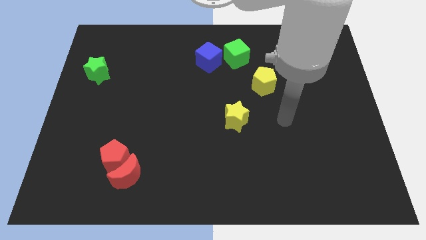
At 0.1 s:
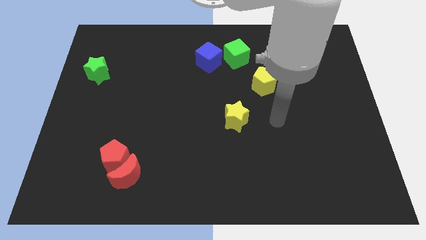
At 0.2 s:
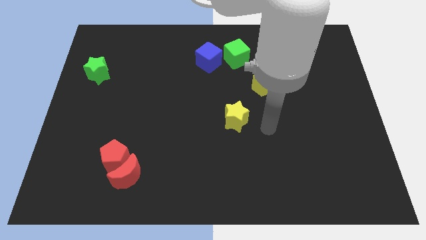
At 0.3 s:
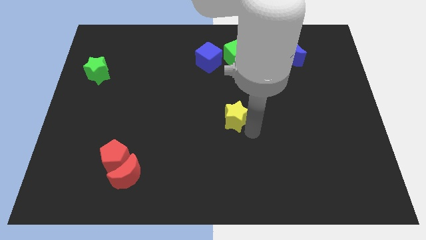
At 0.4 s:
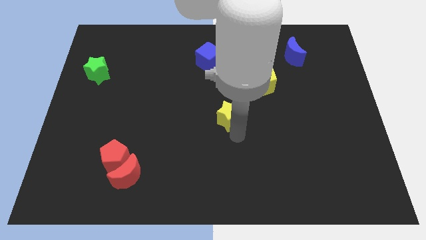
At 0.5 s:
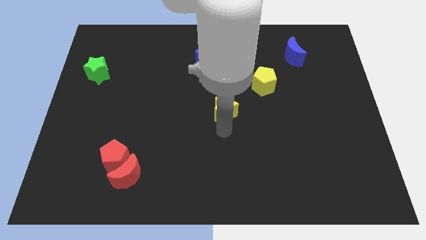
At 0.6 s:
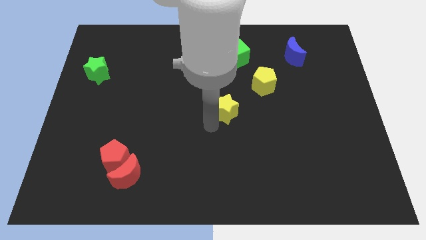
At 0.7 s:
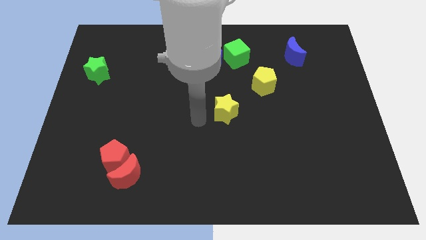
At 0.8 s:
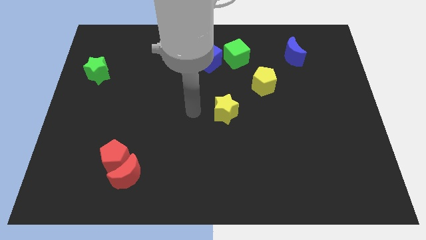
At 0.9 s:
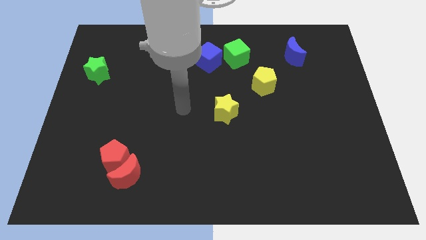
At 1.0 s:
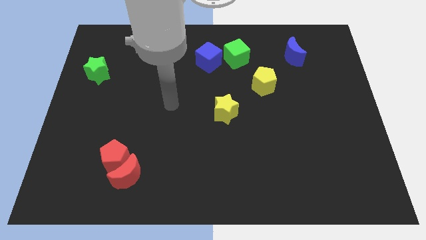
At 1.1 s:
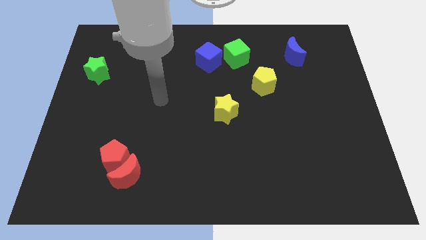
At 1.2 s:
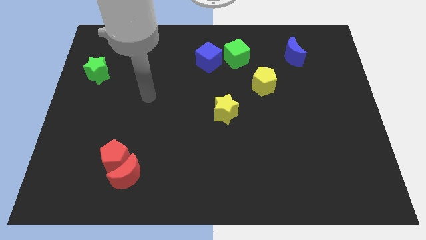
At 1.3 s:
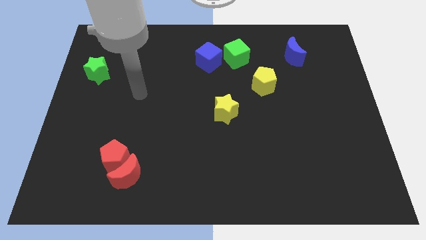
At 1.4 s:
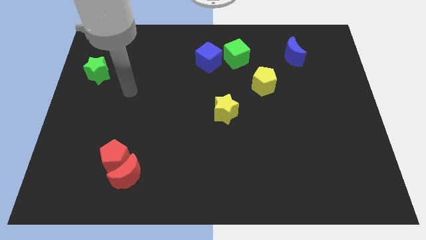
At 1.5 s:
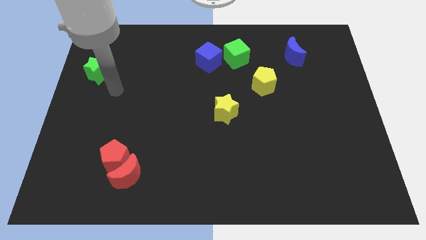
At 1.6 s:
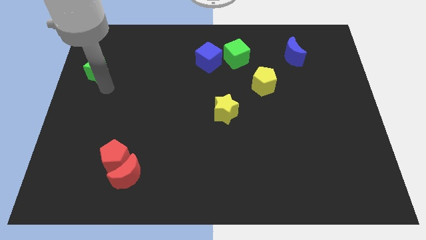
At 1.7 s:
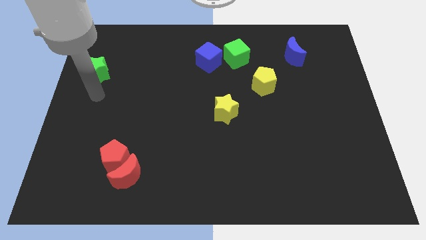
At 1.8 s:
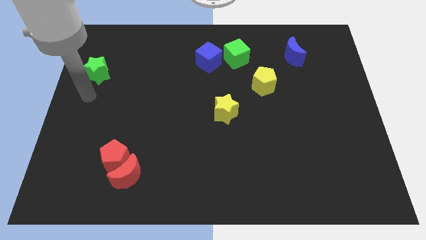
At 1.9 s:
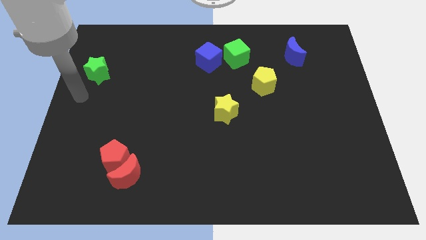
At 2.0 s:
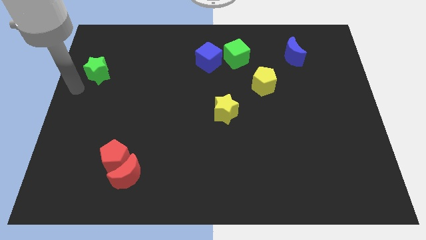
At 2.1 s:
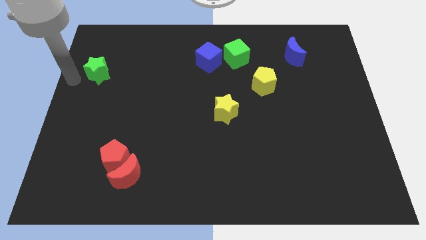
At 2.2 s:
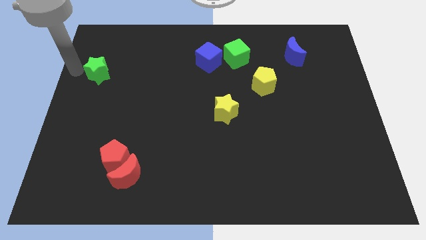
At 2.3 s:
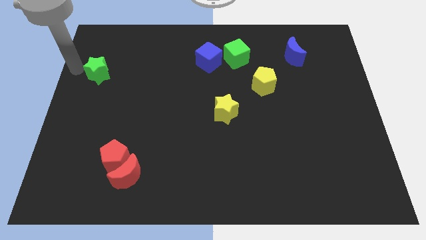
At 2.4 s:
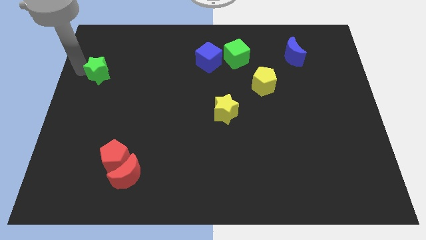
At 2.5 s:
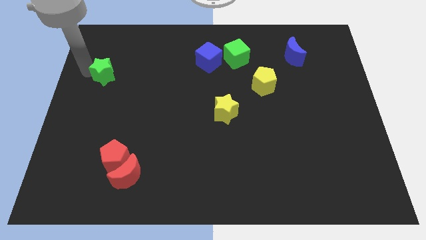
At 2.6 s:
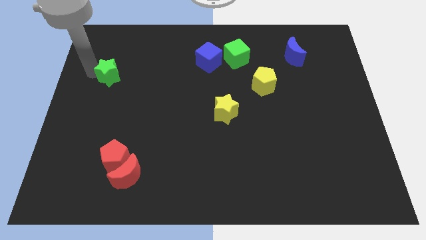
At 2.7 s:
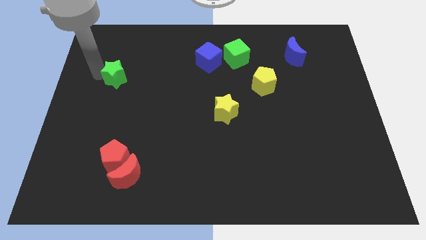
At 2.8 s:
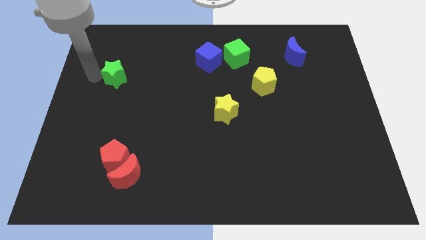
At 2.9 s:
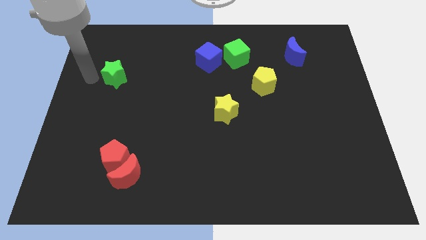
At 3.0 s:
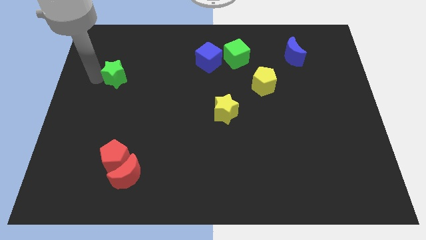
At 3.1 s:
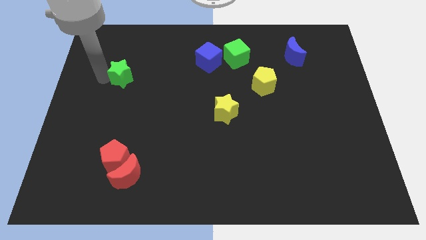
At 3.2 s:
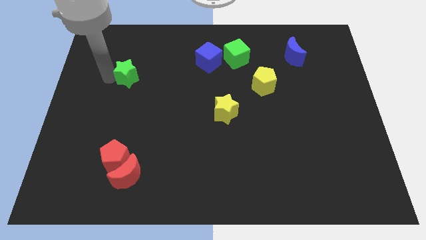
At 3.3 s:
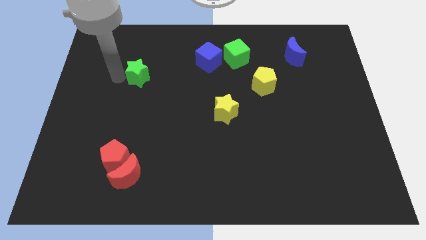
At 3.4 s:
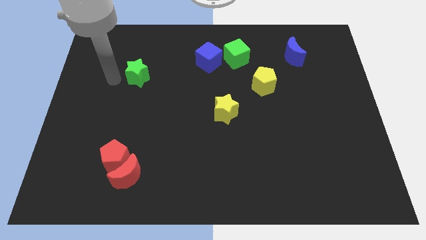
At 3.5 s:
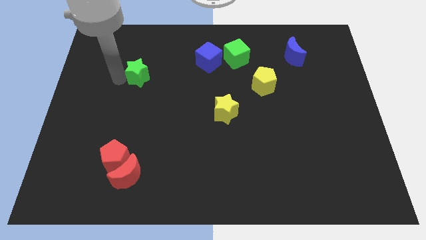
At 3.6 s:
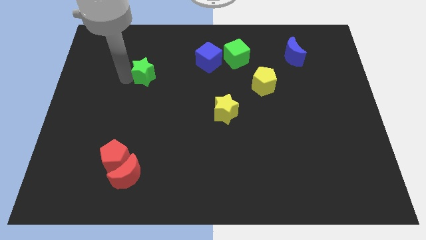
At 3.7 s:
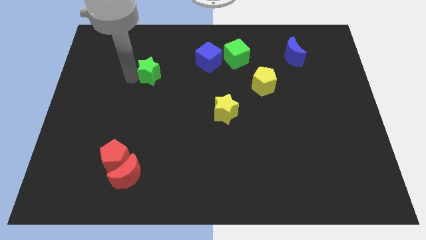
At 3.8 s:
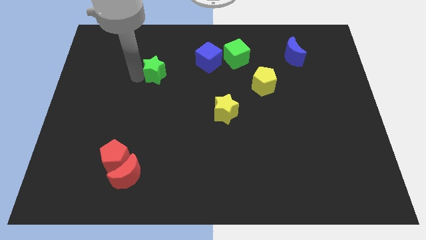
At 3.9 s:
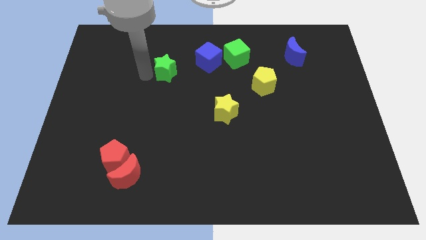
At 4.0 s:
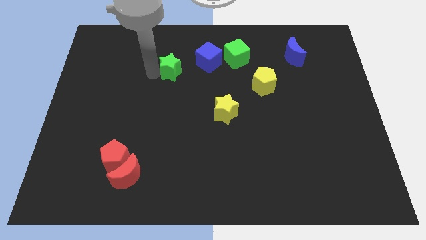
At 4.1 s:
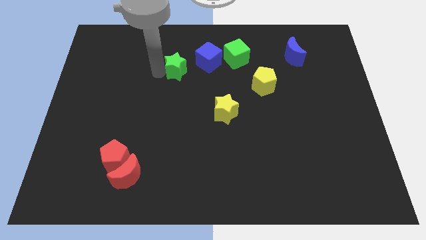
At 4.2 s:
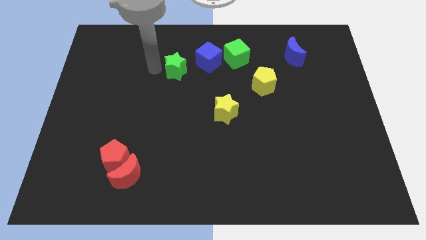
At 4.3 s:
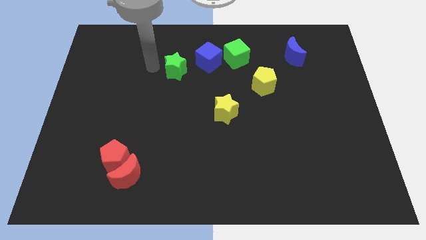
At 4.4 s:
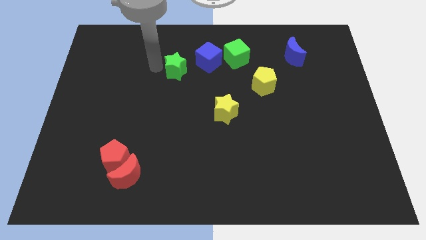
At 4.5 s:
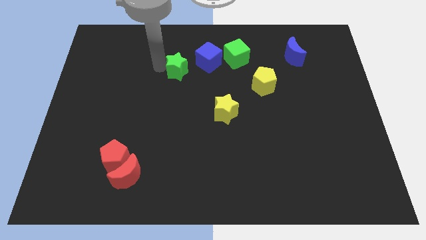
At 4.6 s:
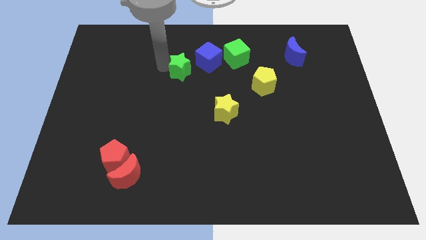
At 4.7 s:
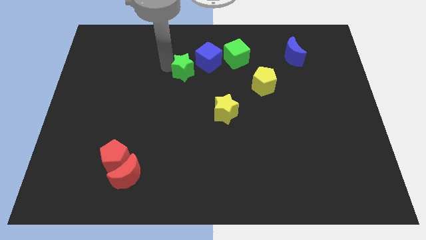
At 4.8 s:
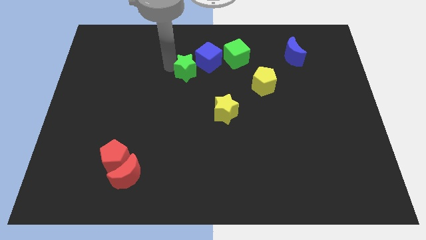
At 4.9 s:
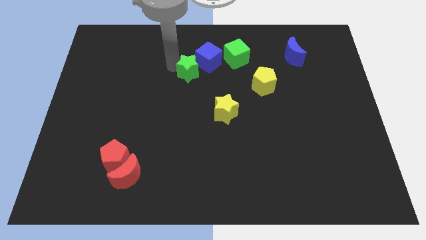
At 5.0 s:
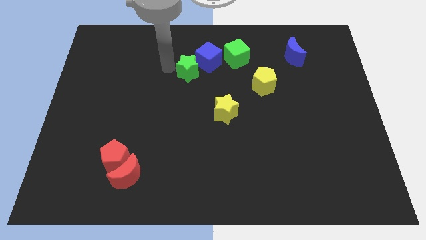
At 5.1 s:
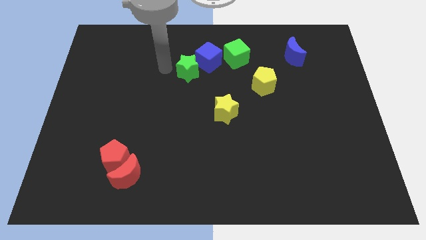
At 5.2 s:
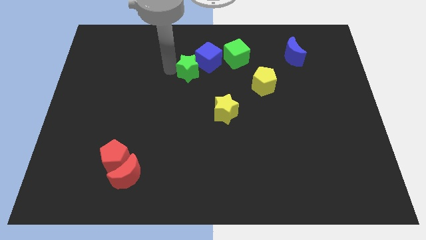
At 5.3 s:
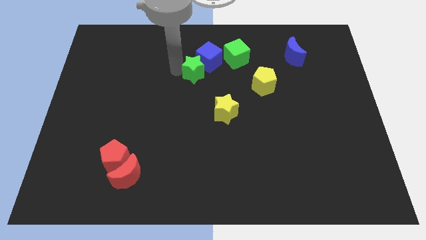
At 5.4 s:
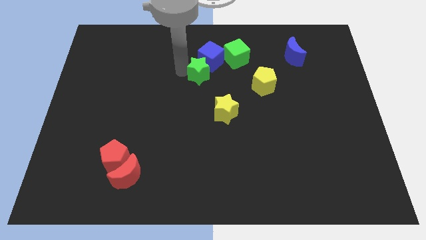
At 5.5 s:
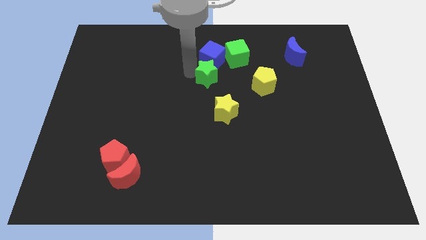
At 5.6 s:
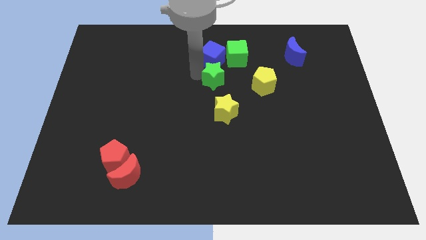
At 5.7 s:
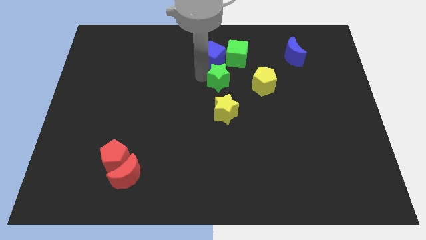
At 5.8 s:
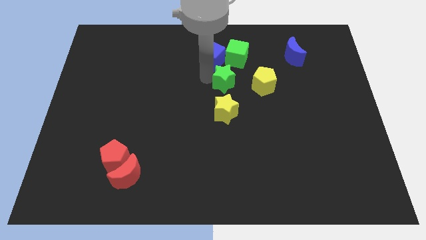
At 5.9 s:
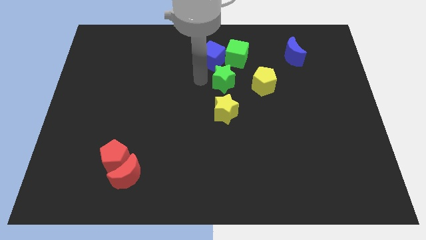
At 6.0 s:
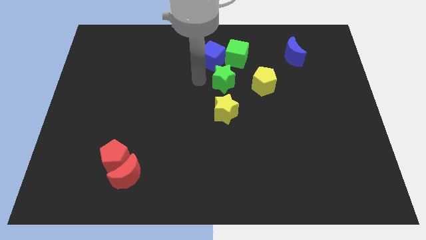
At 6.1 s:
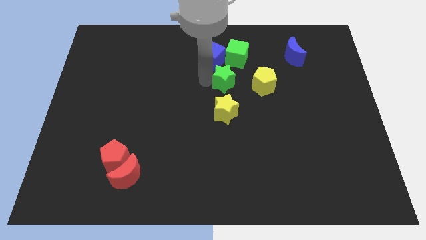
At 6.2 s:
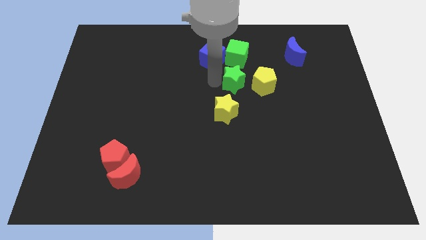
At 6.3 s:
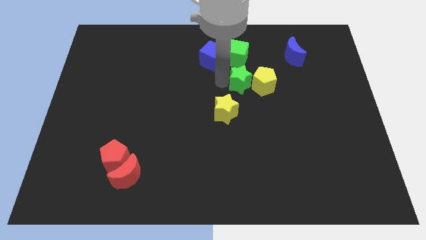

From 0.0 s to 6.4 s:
slide the green star to the yellow pentagon

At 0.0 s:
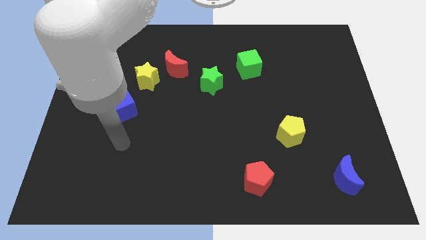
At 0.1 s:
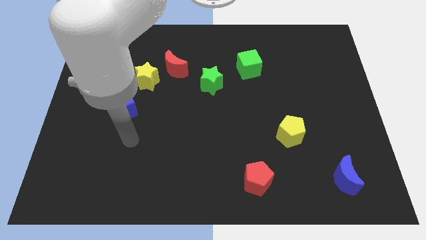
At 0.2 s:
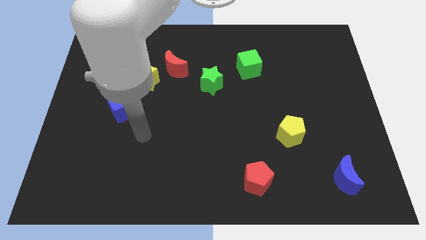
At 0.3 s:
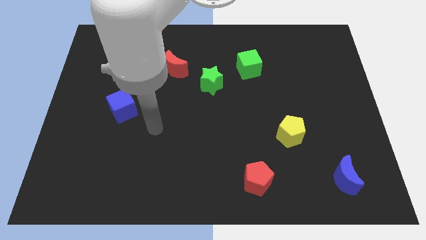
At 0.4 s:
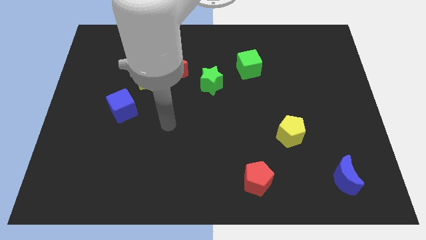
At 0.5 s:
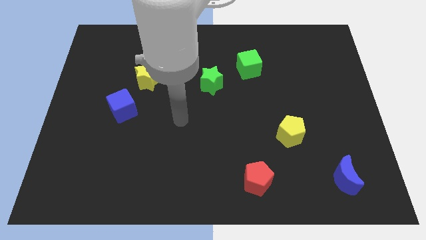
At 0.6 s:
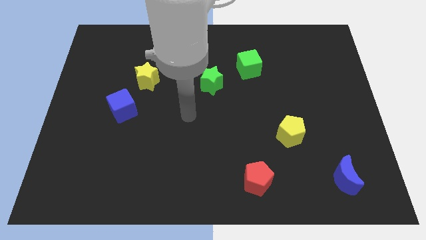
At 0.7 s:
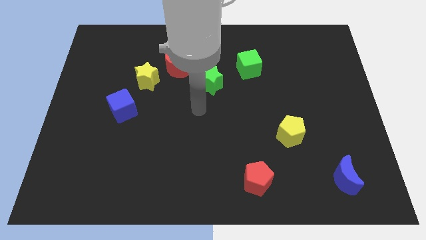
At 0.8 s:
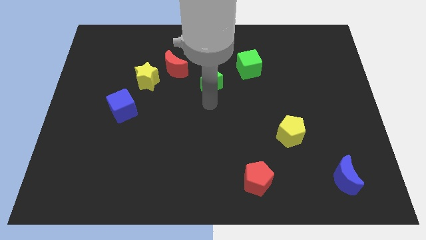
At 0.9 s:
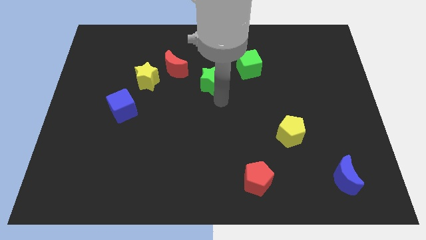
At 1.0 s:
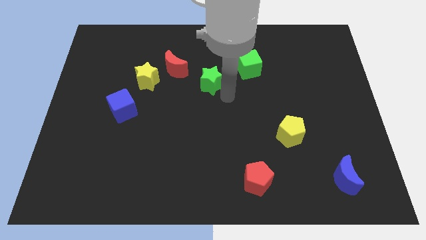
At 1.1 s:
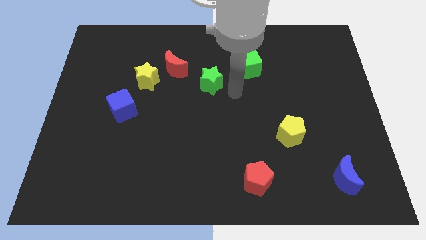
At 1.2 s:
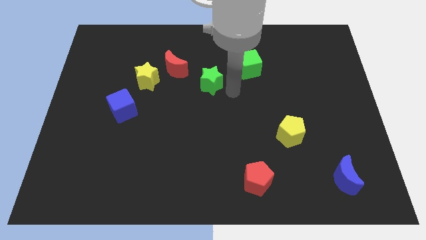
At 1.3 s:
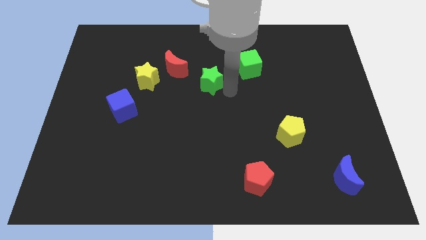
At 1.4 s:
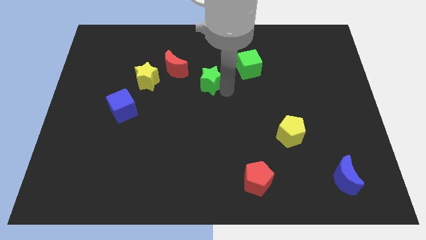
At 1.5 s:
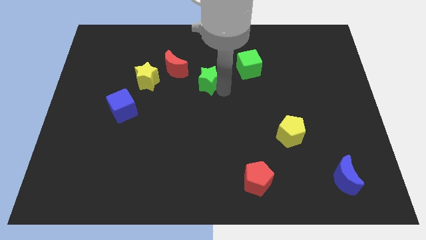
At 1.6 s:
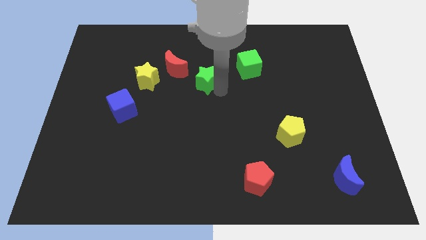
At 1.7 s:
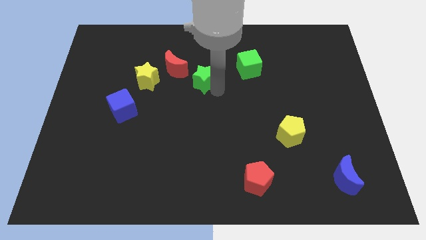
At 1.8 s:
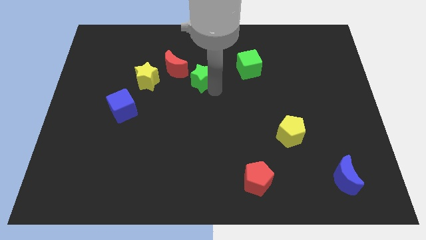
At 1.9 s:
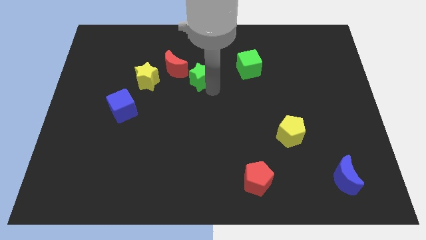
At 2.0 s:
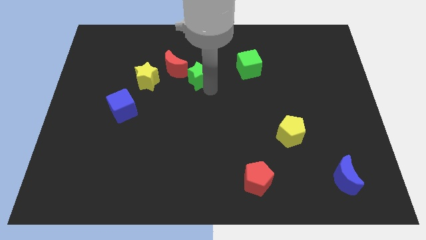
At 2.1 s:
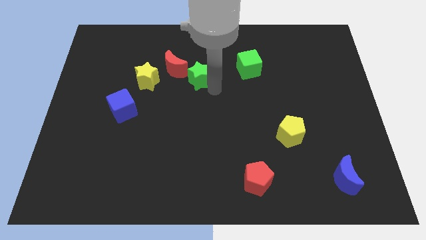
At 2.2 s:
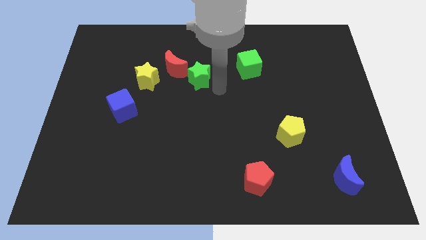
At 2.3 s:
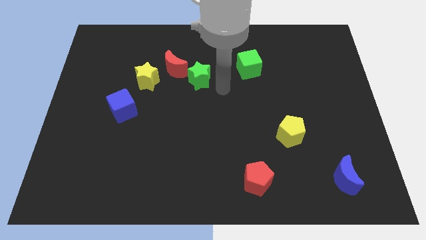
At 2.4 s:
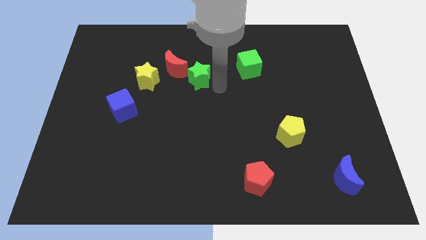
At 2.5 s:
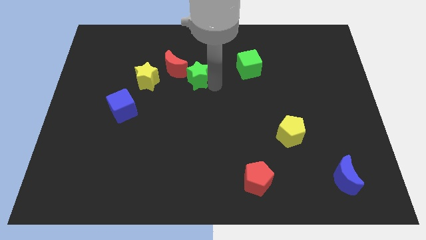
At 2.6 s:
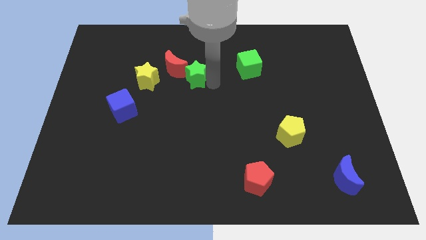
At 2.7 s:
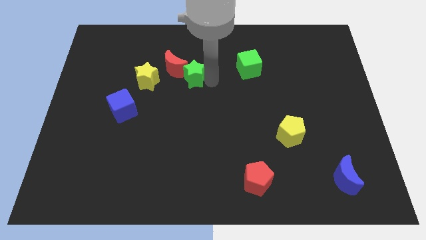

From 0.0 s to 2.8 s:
push the green star towards the red moon
